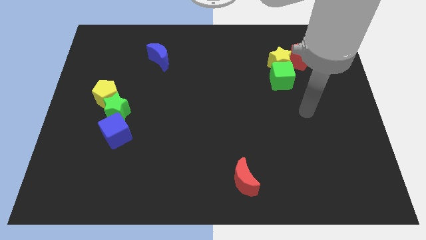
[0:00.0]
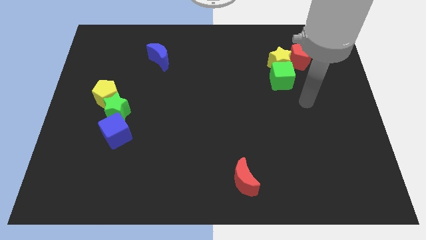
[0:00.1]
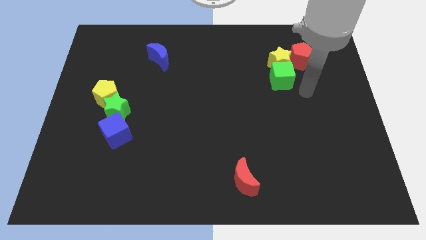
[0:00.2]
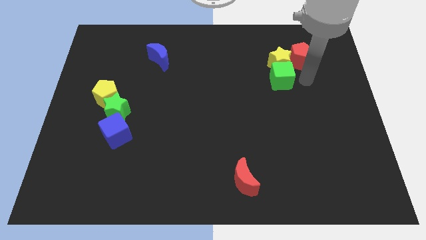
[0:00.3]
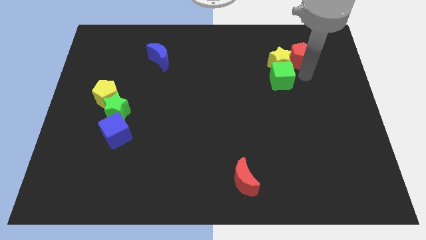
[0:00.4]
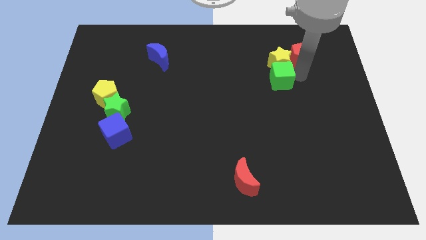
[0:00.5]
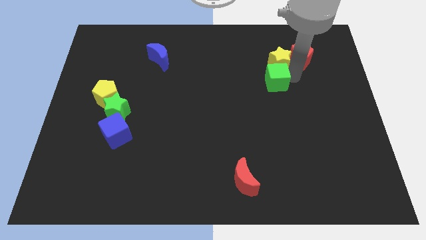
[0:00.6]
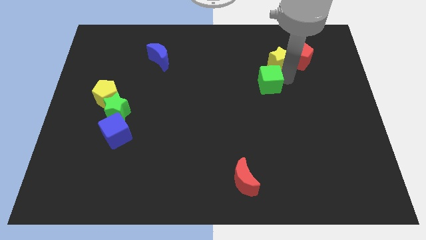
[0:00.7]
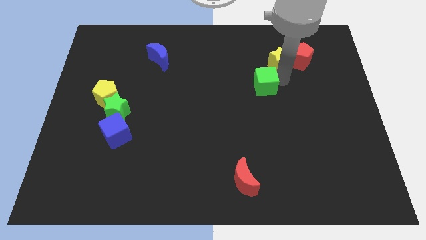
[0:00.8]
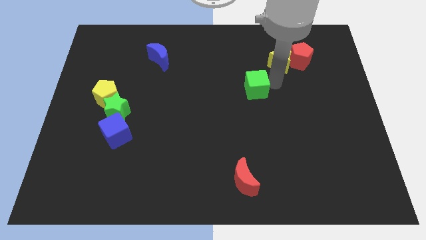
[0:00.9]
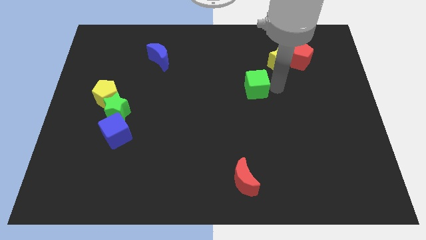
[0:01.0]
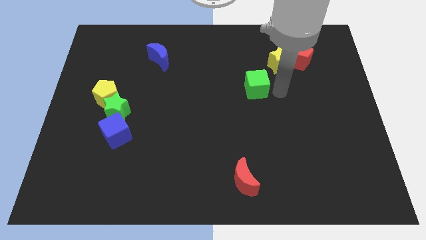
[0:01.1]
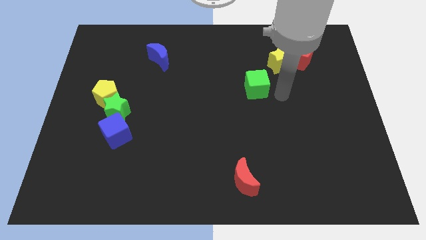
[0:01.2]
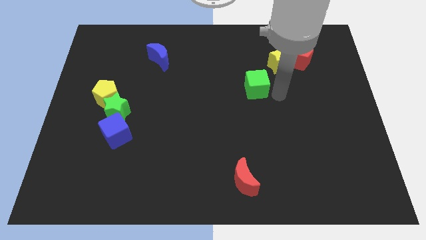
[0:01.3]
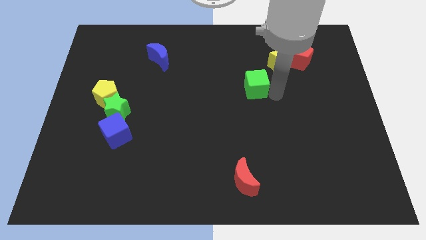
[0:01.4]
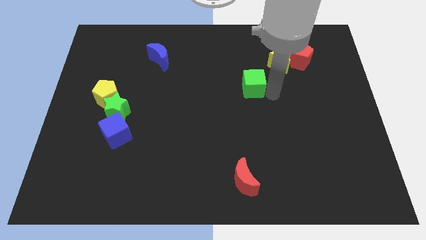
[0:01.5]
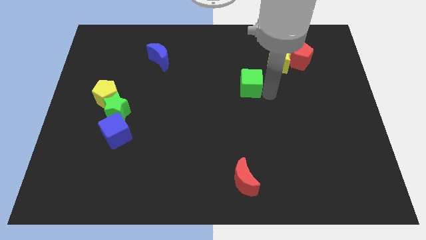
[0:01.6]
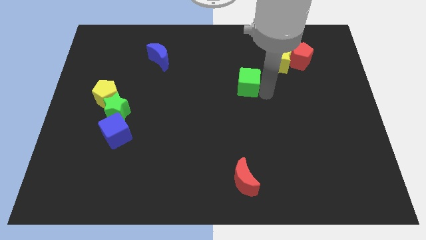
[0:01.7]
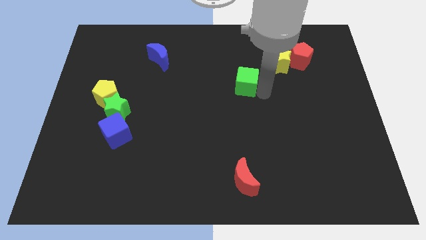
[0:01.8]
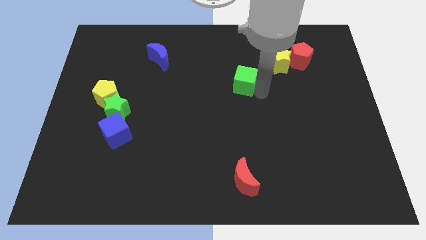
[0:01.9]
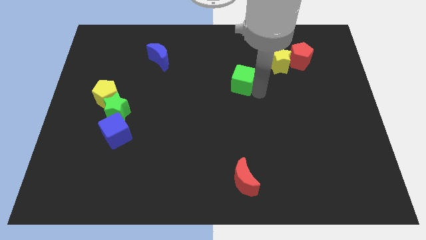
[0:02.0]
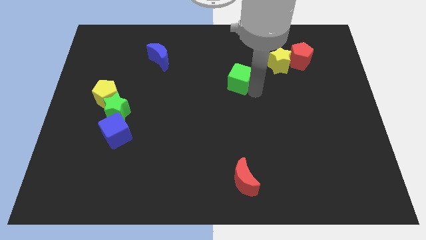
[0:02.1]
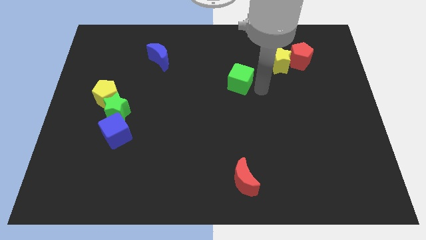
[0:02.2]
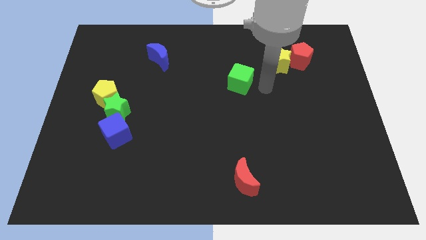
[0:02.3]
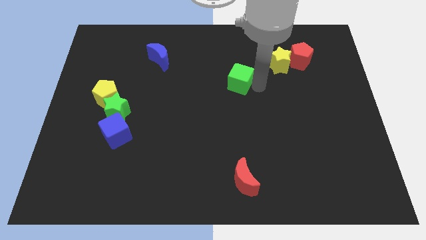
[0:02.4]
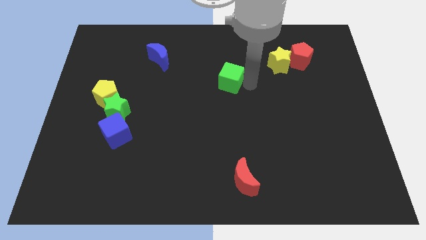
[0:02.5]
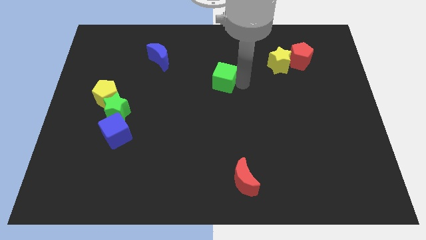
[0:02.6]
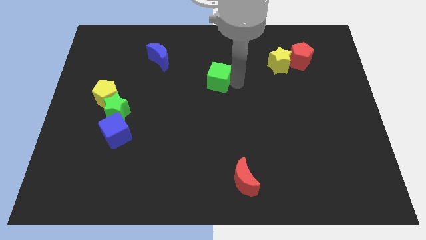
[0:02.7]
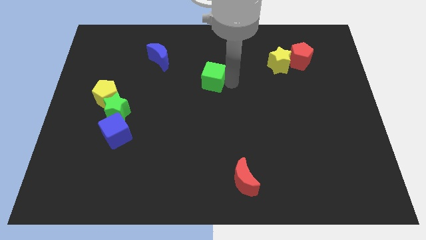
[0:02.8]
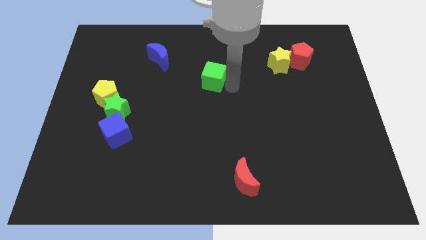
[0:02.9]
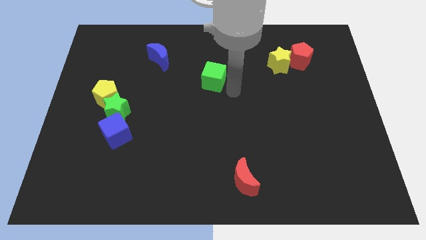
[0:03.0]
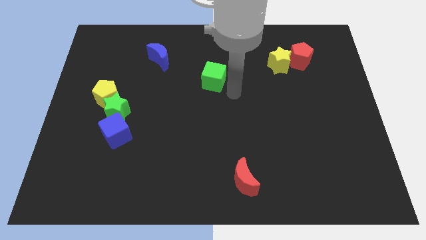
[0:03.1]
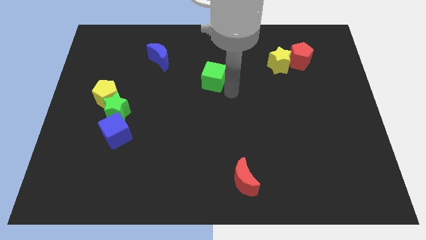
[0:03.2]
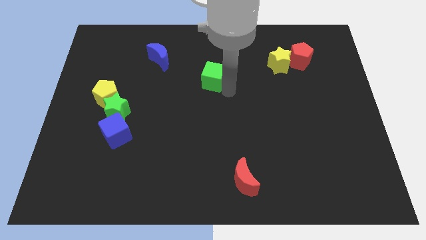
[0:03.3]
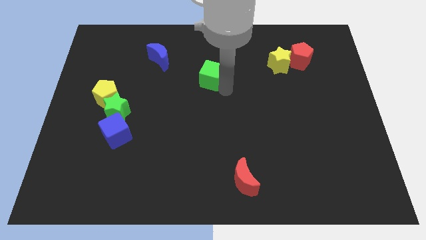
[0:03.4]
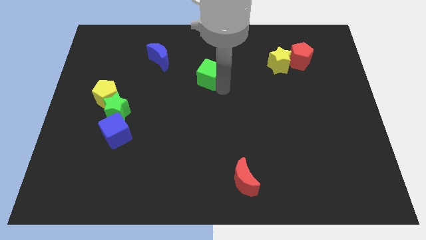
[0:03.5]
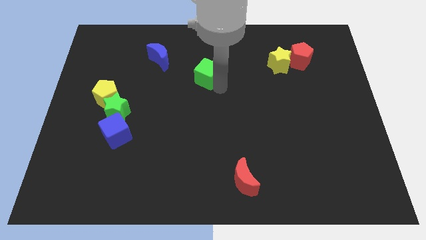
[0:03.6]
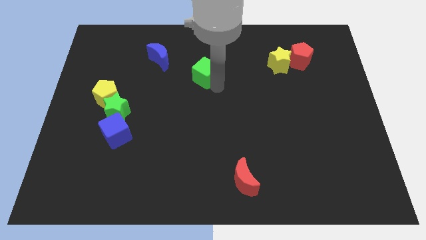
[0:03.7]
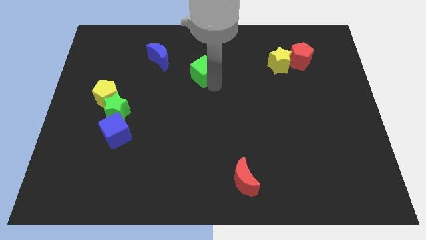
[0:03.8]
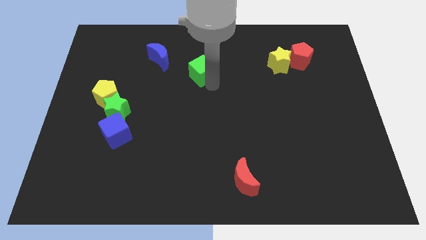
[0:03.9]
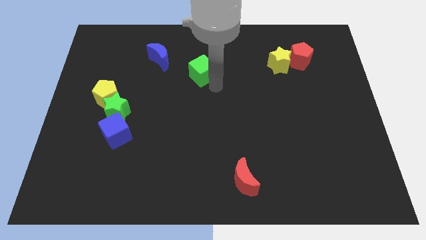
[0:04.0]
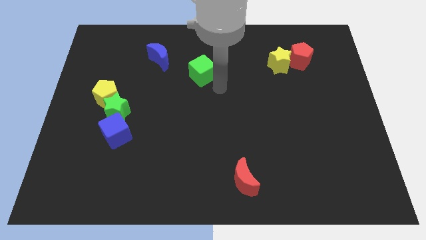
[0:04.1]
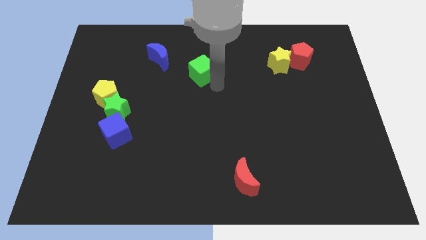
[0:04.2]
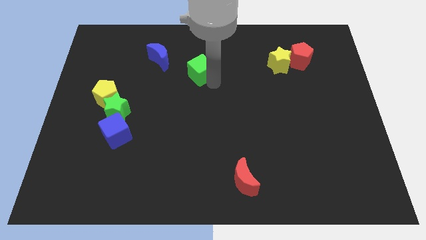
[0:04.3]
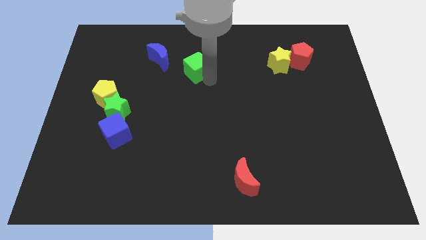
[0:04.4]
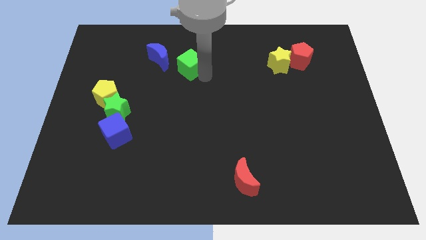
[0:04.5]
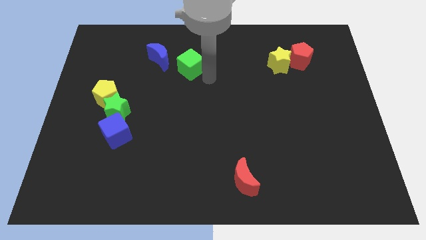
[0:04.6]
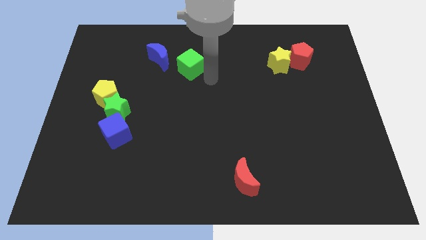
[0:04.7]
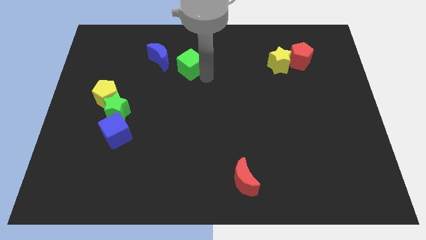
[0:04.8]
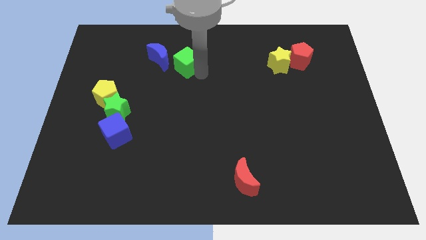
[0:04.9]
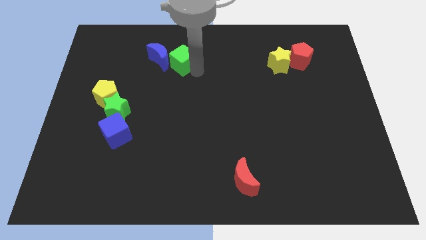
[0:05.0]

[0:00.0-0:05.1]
slide the green cube close to the blue moon

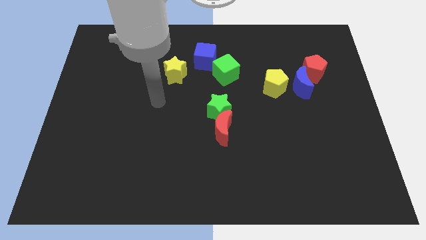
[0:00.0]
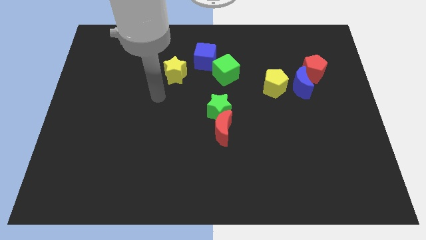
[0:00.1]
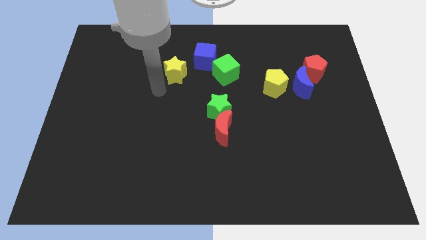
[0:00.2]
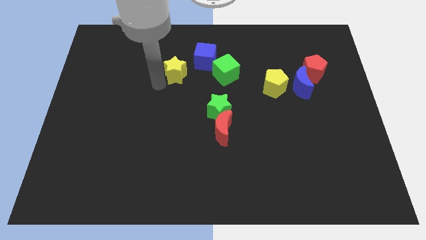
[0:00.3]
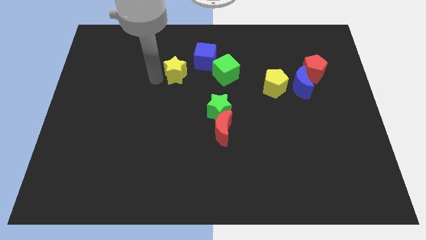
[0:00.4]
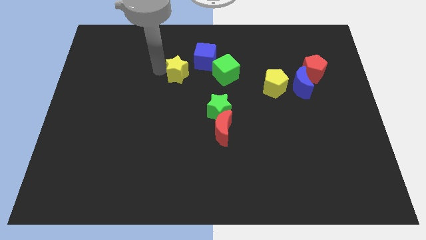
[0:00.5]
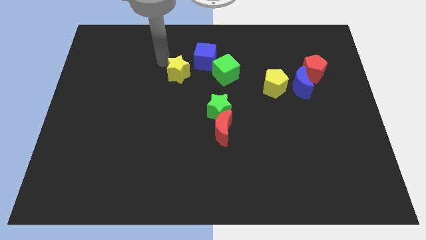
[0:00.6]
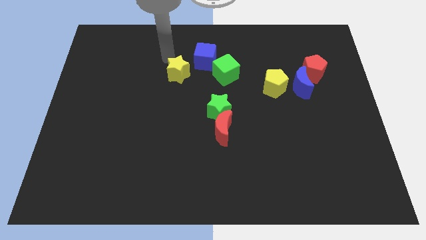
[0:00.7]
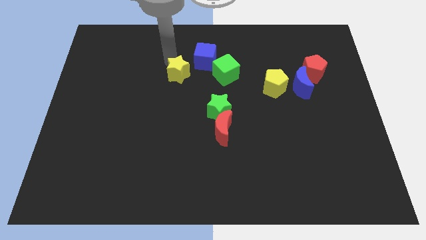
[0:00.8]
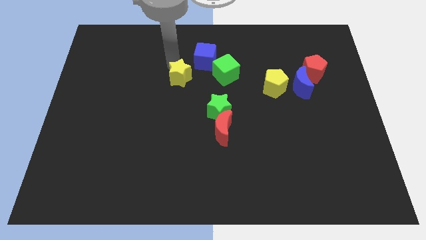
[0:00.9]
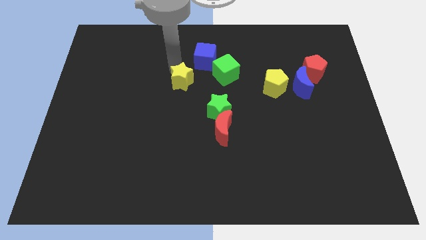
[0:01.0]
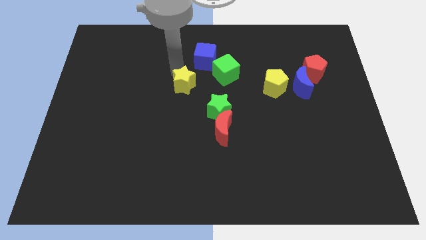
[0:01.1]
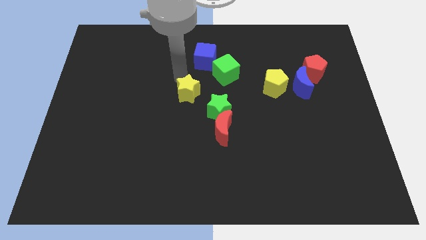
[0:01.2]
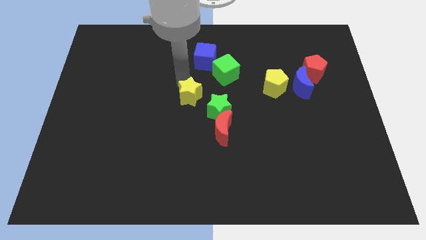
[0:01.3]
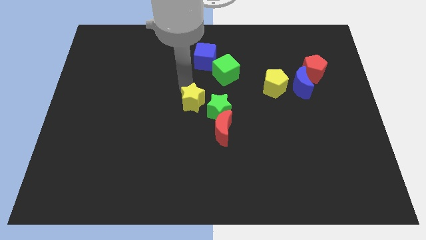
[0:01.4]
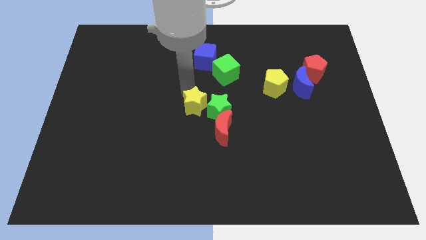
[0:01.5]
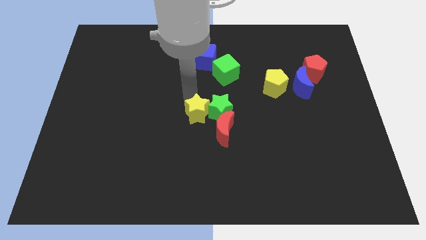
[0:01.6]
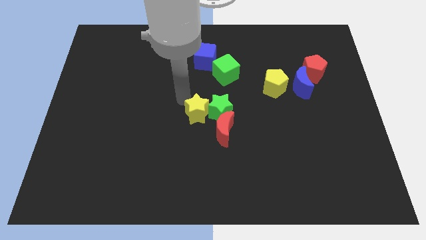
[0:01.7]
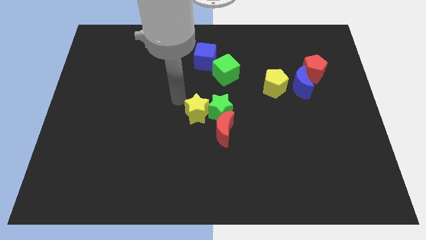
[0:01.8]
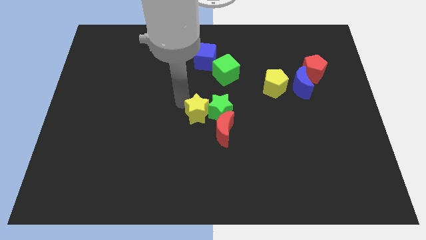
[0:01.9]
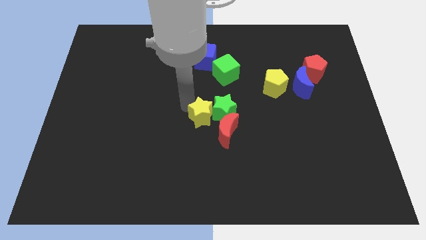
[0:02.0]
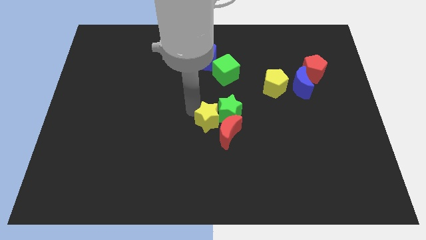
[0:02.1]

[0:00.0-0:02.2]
put the yellow star towards the red moon
